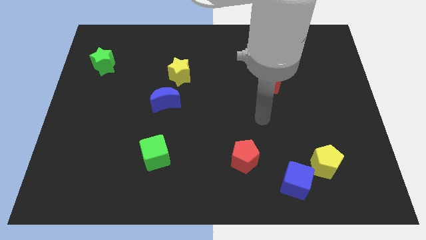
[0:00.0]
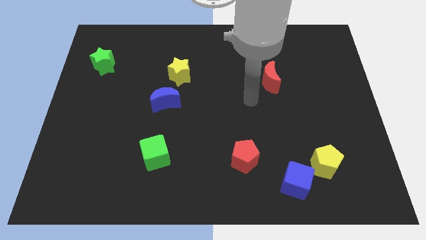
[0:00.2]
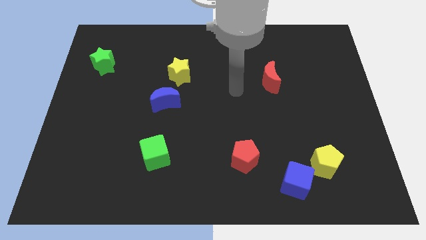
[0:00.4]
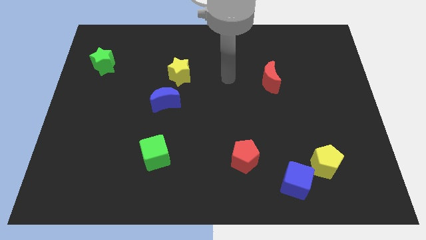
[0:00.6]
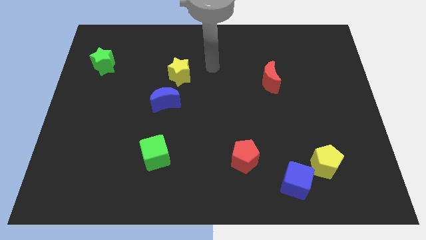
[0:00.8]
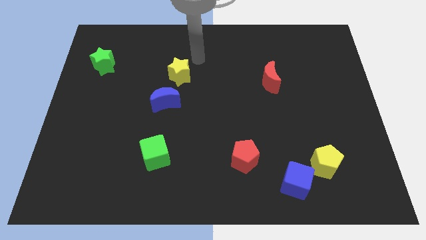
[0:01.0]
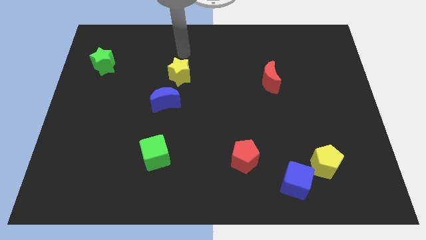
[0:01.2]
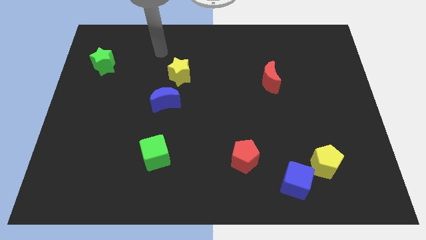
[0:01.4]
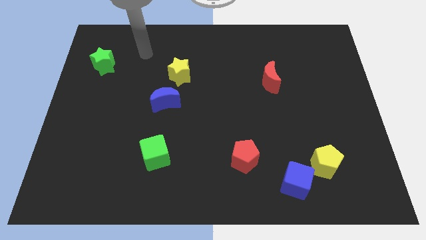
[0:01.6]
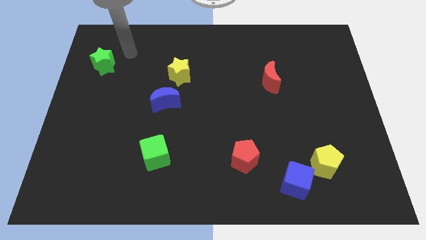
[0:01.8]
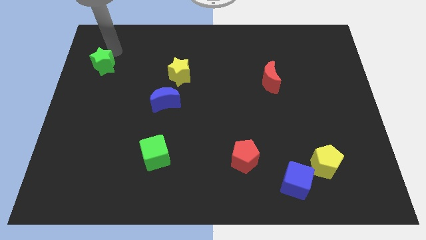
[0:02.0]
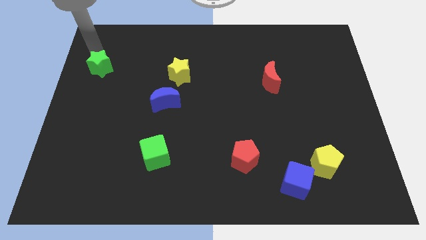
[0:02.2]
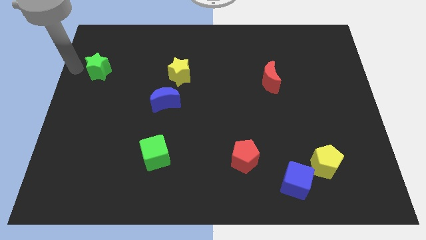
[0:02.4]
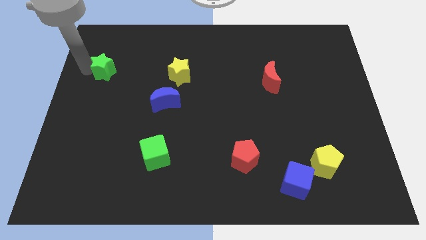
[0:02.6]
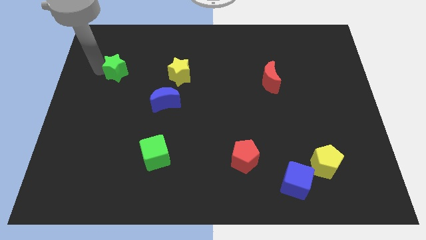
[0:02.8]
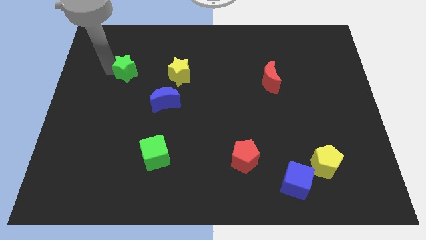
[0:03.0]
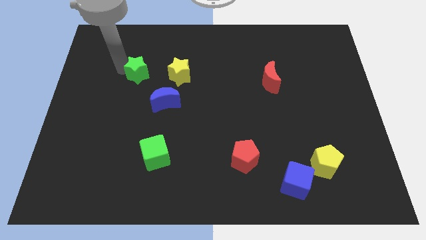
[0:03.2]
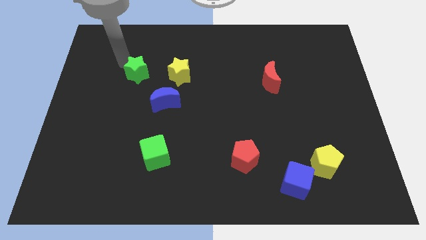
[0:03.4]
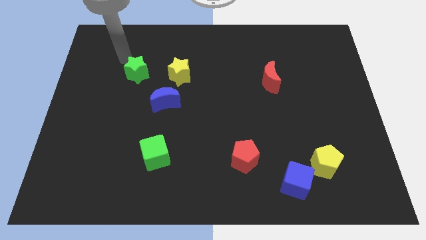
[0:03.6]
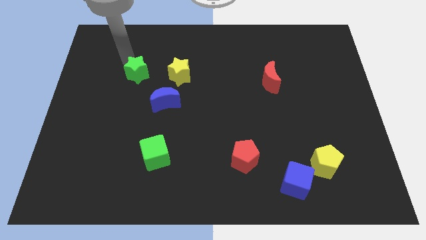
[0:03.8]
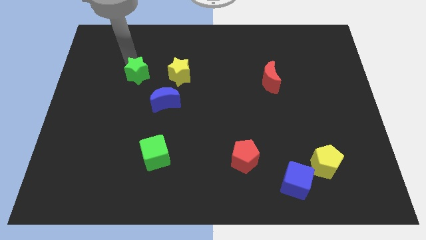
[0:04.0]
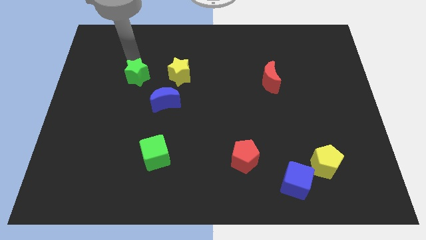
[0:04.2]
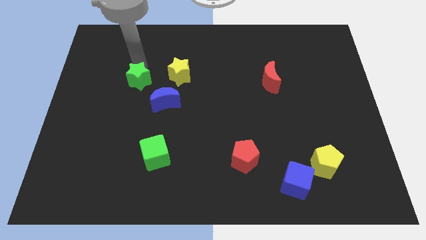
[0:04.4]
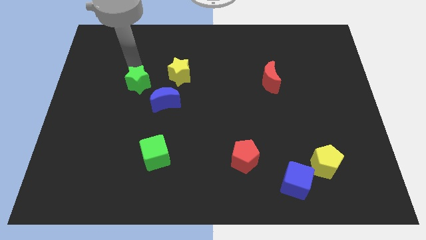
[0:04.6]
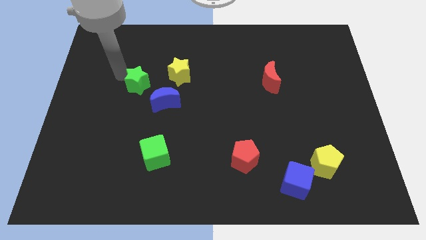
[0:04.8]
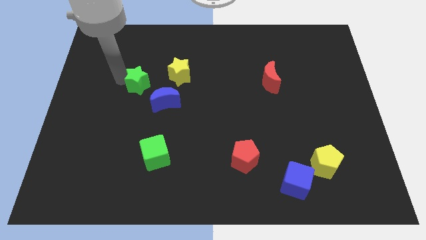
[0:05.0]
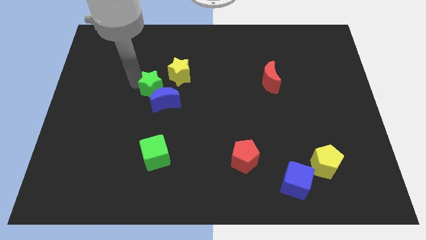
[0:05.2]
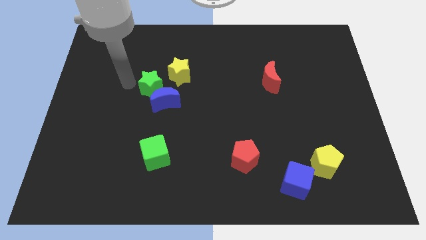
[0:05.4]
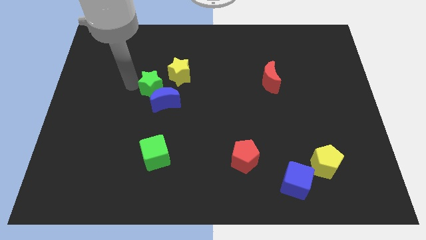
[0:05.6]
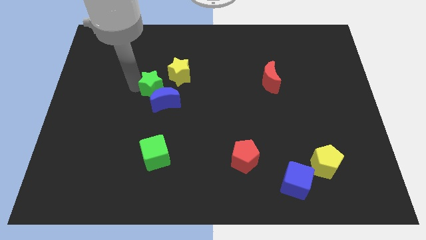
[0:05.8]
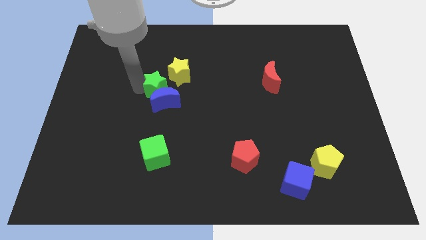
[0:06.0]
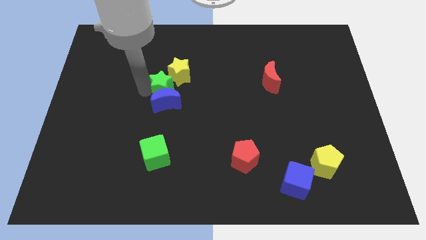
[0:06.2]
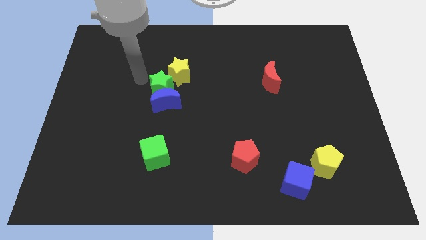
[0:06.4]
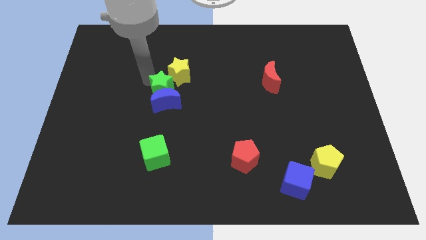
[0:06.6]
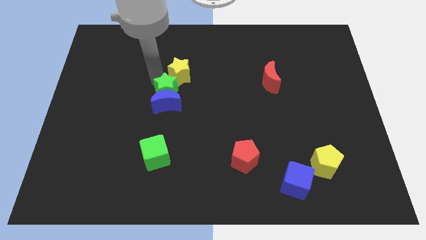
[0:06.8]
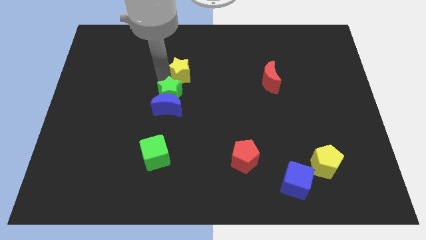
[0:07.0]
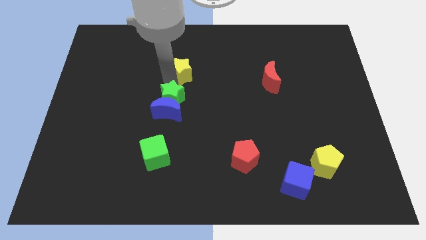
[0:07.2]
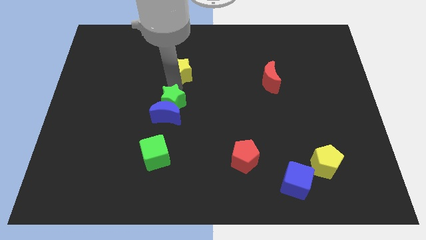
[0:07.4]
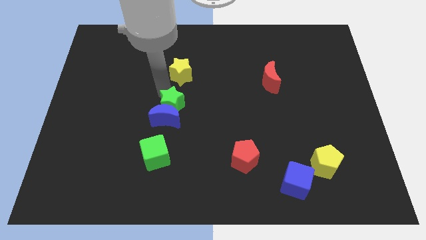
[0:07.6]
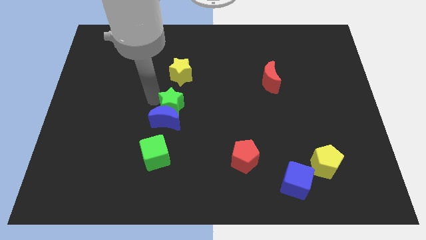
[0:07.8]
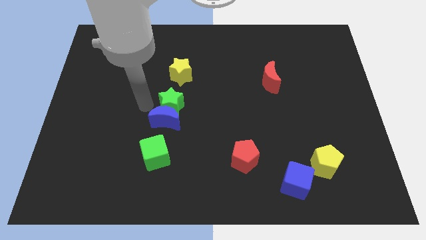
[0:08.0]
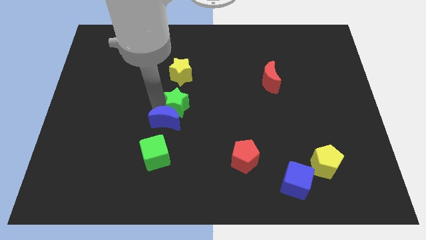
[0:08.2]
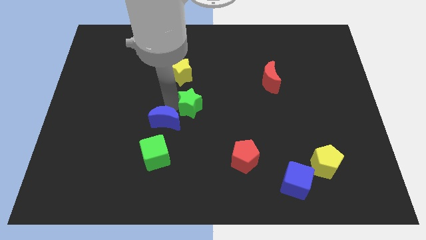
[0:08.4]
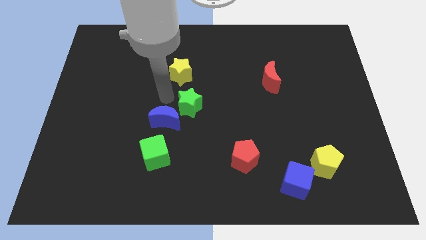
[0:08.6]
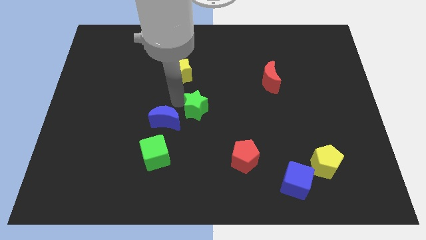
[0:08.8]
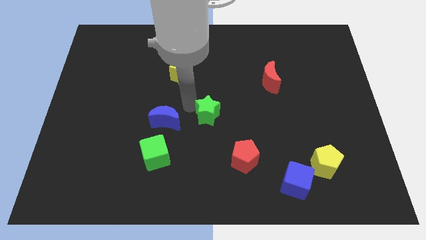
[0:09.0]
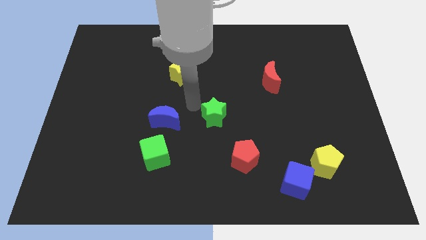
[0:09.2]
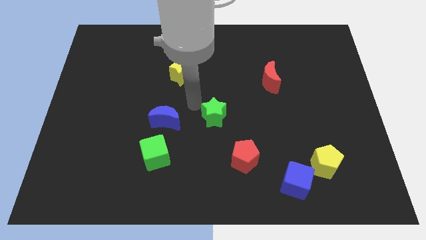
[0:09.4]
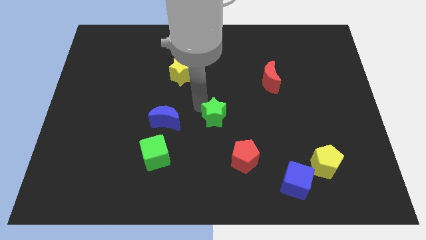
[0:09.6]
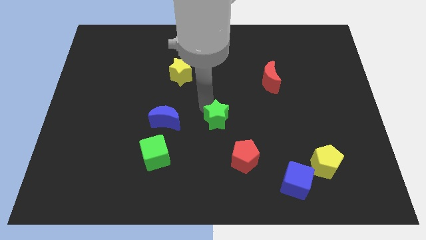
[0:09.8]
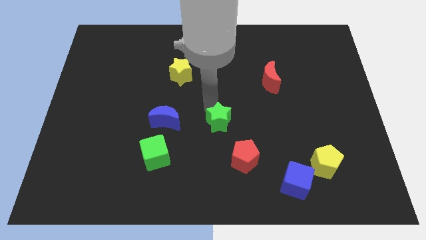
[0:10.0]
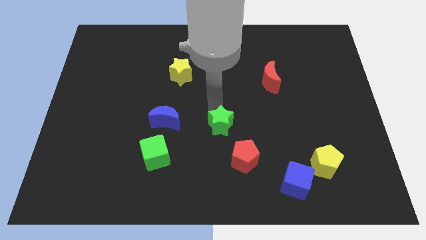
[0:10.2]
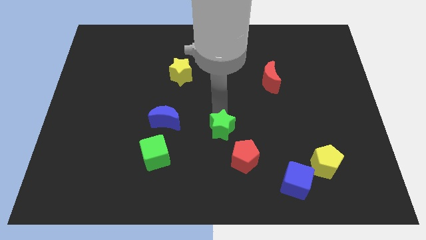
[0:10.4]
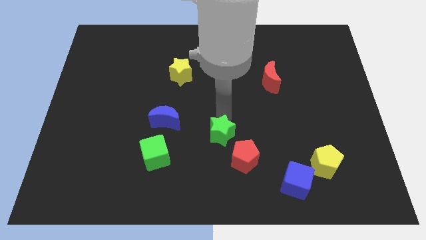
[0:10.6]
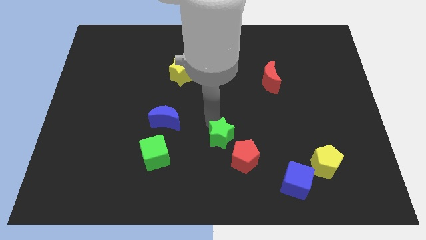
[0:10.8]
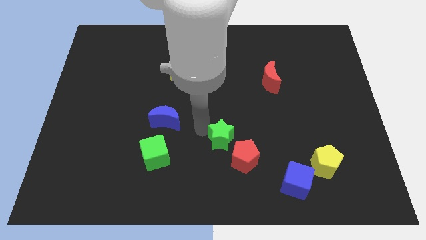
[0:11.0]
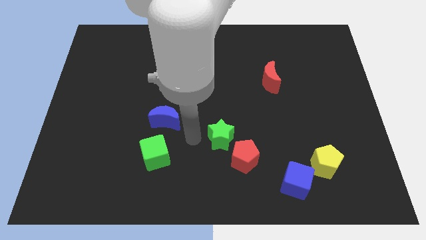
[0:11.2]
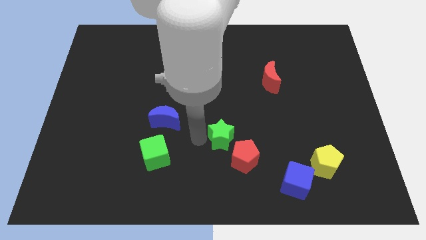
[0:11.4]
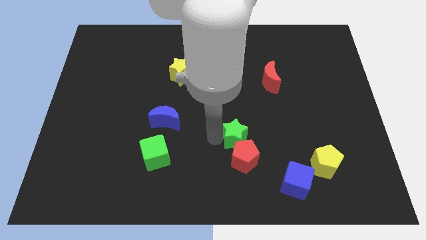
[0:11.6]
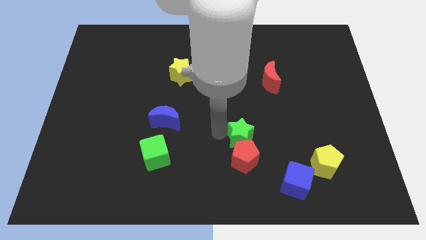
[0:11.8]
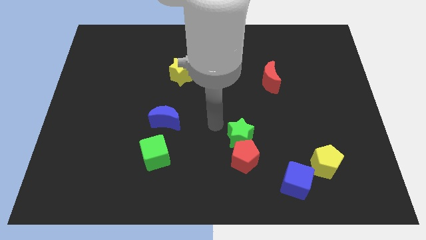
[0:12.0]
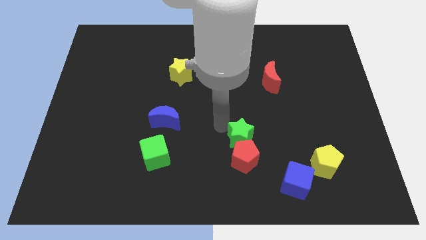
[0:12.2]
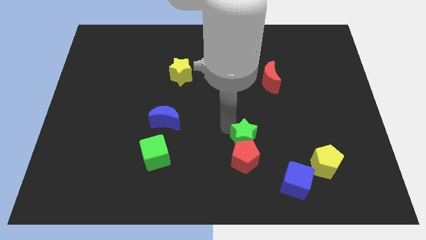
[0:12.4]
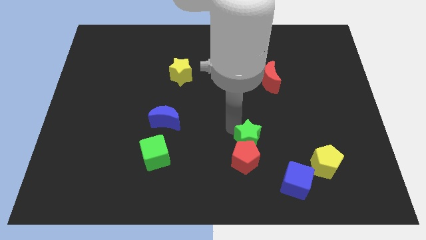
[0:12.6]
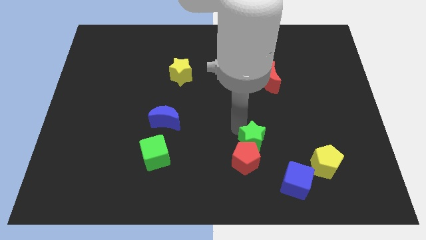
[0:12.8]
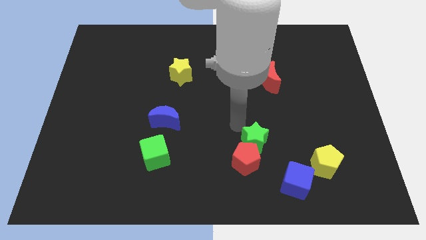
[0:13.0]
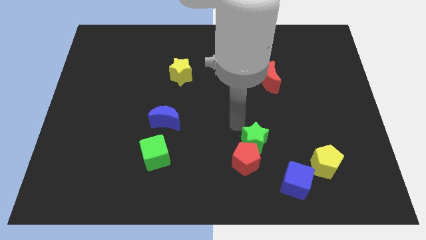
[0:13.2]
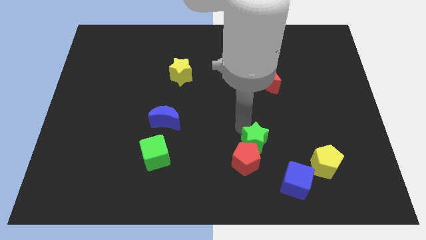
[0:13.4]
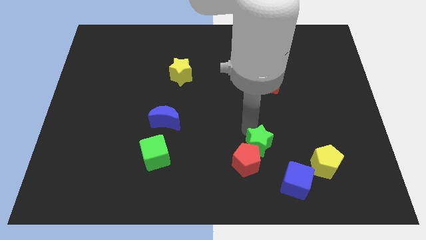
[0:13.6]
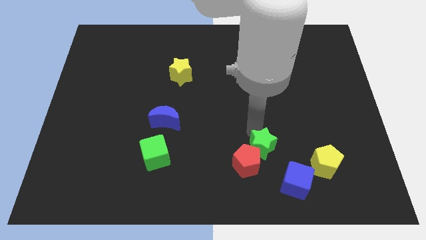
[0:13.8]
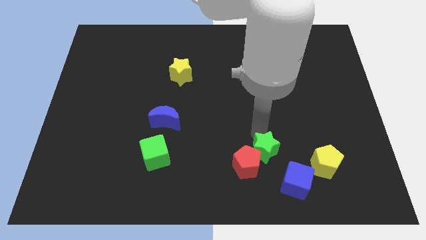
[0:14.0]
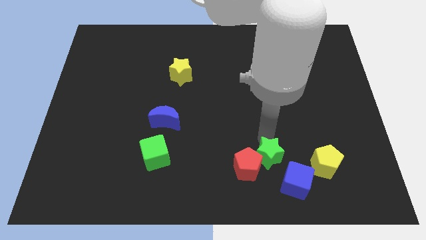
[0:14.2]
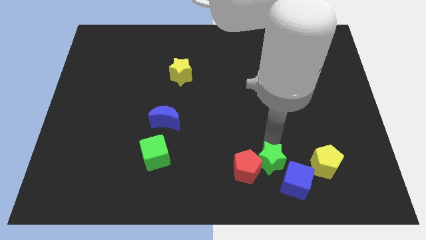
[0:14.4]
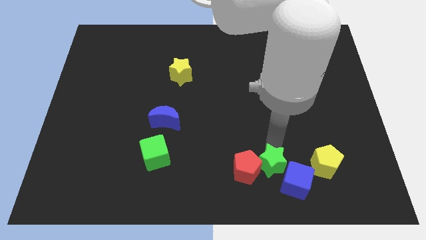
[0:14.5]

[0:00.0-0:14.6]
move the green star towards the blue cube
